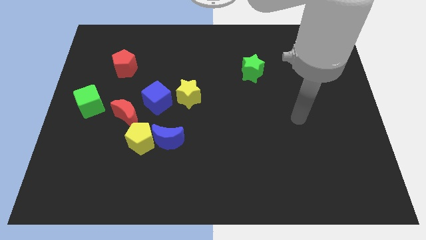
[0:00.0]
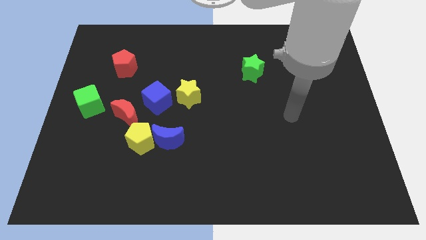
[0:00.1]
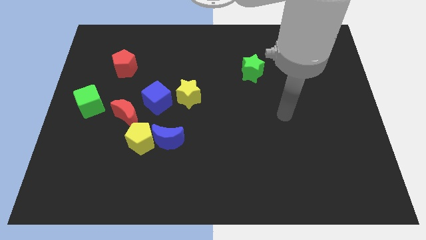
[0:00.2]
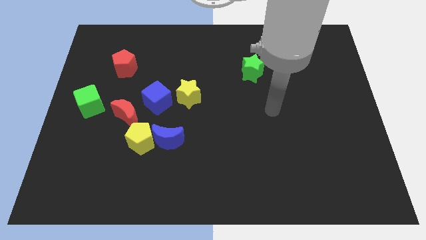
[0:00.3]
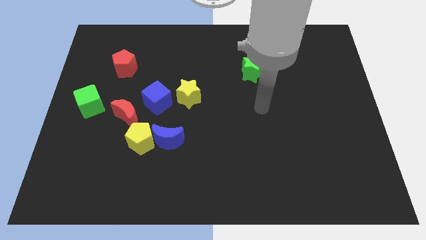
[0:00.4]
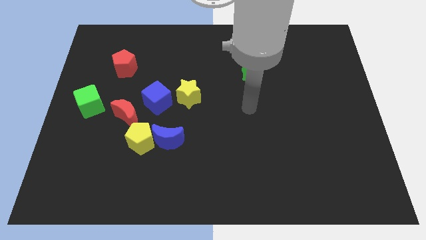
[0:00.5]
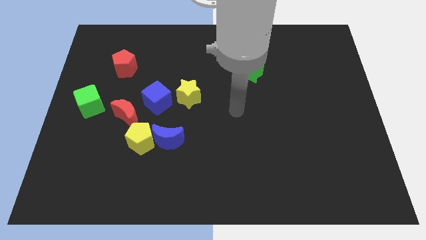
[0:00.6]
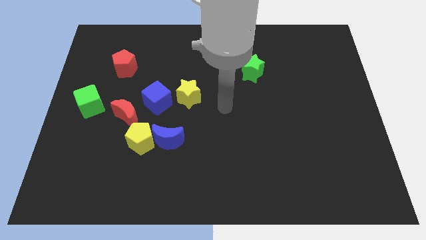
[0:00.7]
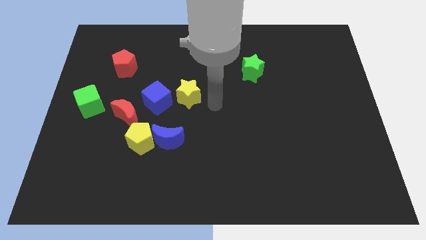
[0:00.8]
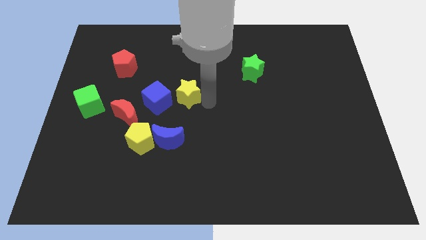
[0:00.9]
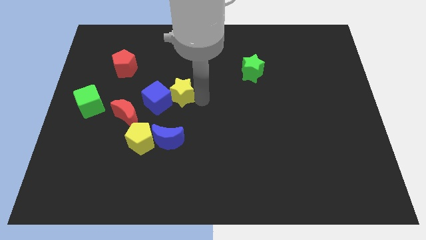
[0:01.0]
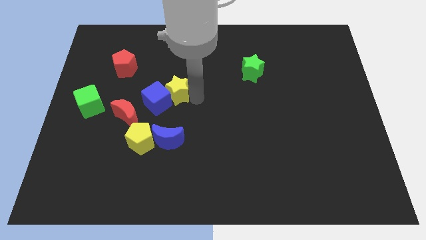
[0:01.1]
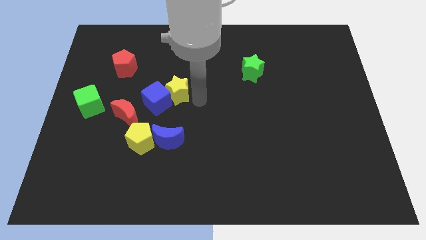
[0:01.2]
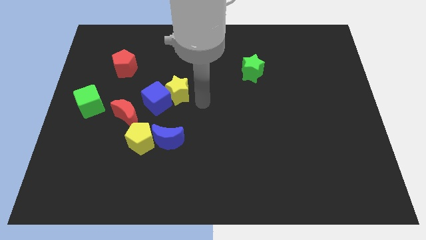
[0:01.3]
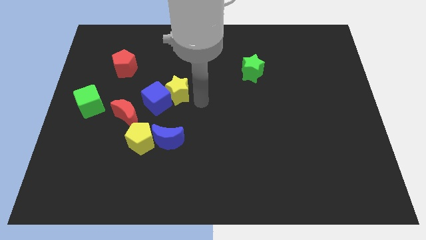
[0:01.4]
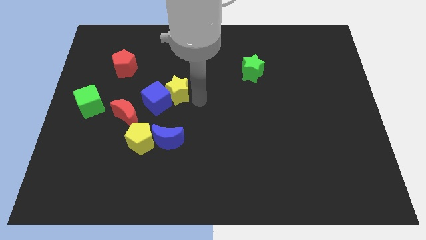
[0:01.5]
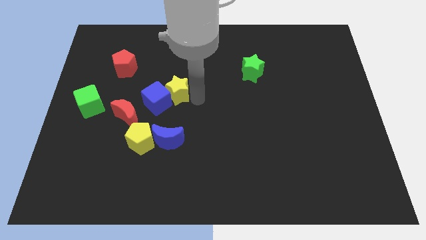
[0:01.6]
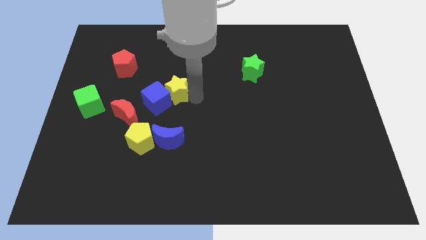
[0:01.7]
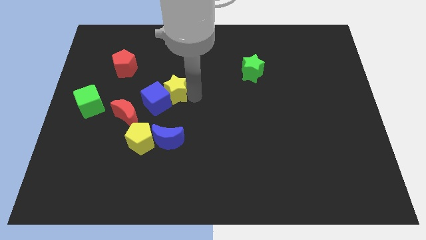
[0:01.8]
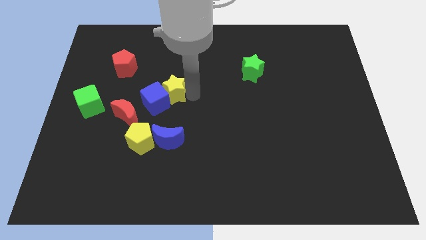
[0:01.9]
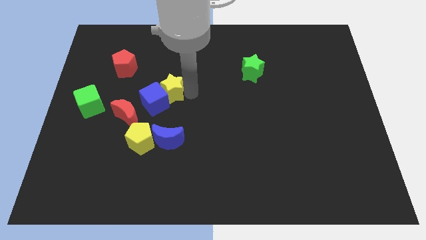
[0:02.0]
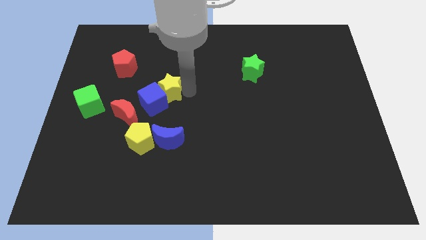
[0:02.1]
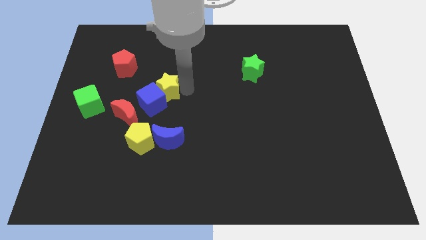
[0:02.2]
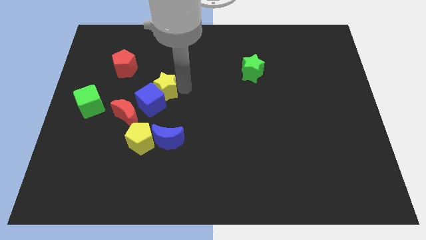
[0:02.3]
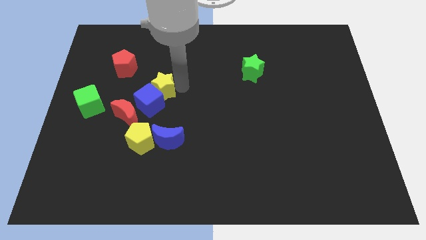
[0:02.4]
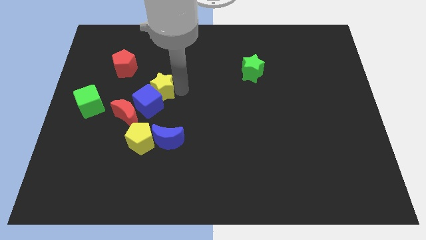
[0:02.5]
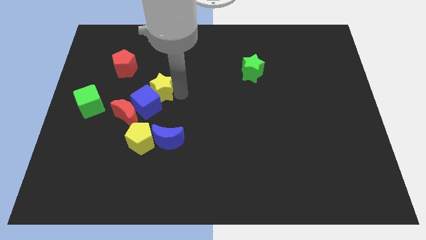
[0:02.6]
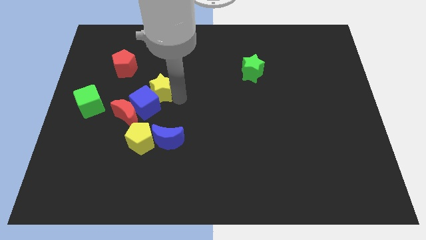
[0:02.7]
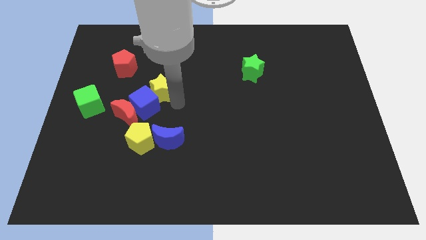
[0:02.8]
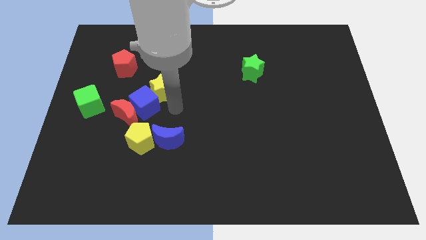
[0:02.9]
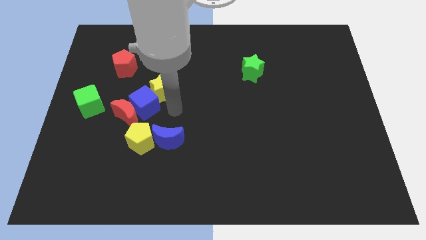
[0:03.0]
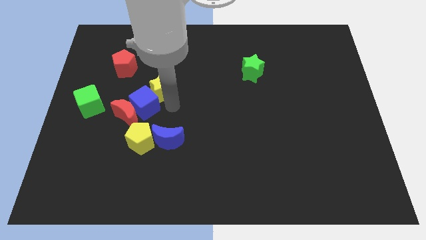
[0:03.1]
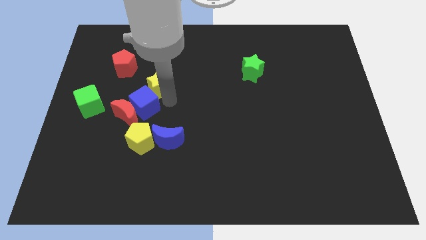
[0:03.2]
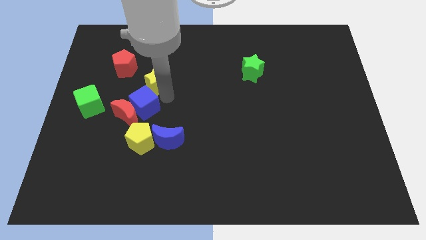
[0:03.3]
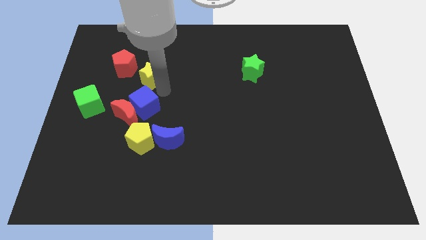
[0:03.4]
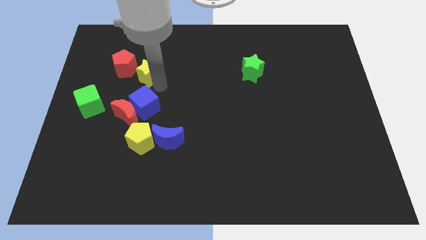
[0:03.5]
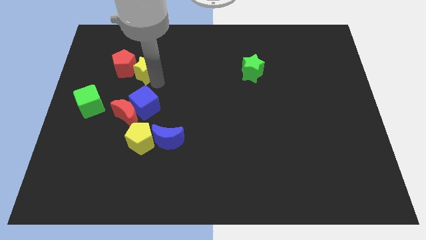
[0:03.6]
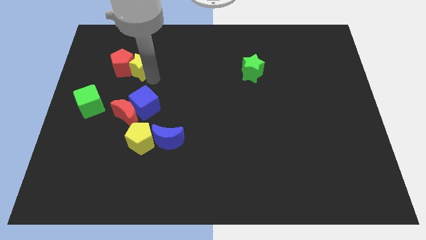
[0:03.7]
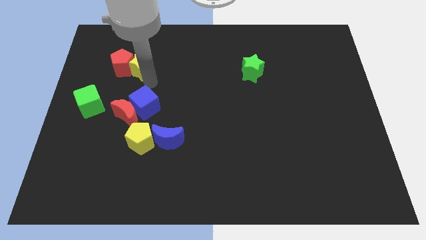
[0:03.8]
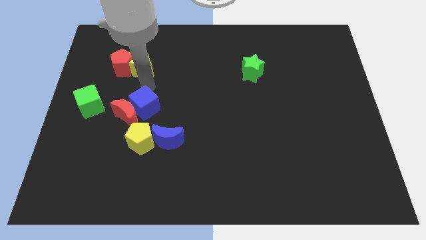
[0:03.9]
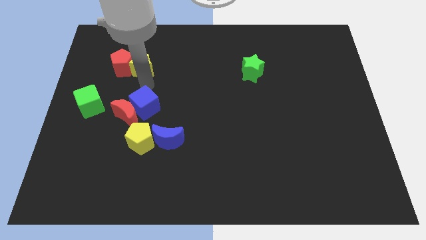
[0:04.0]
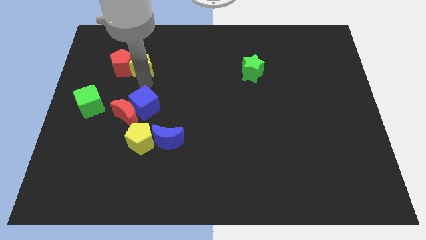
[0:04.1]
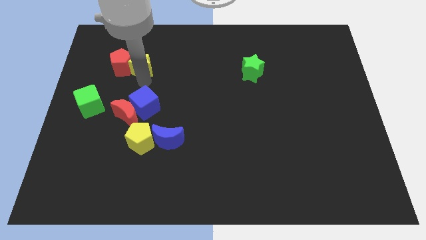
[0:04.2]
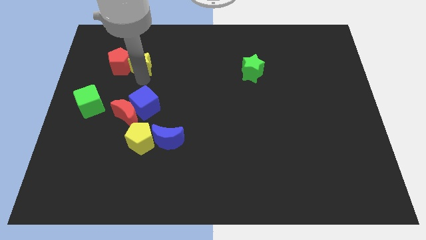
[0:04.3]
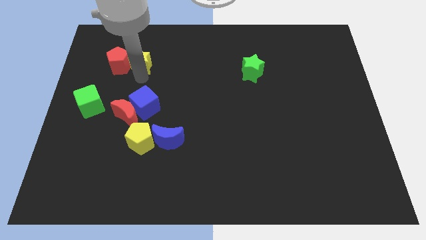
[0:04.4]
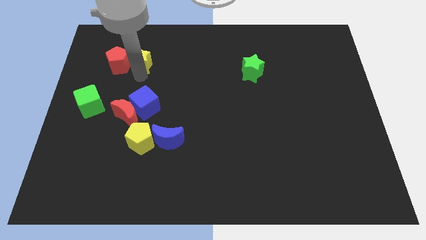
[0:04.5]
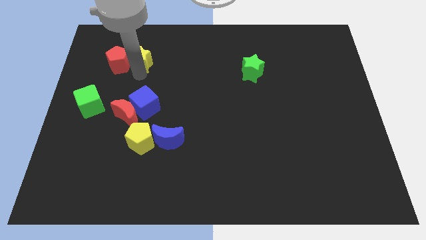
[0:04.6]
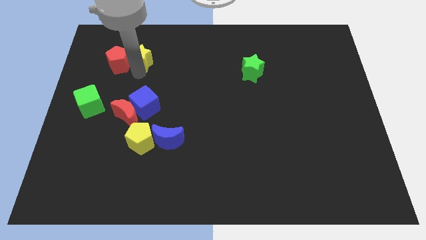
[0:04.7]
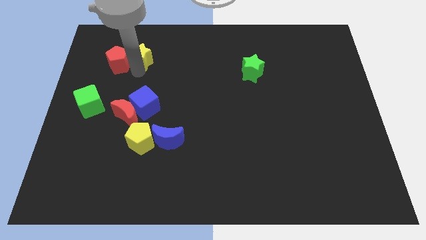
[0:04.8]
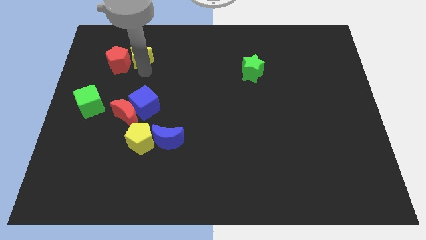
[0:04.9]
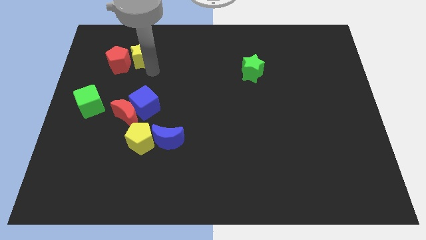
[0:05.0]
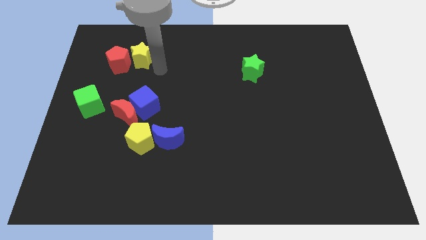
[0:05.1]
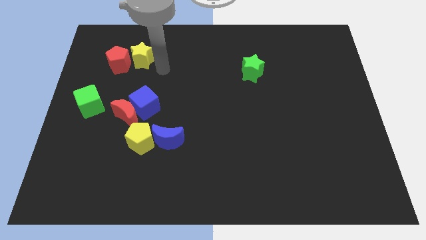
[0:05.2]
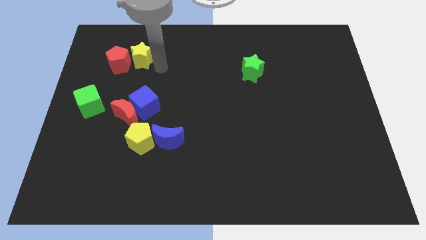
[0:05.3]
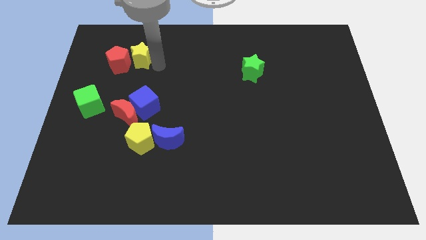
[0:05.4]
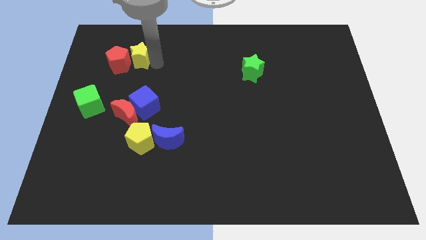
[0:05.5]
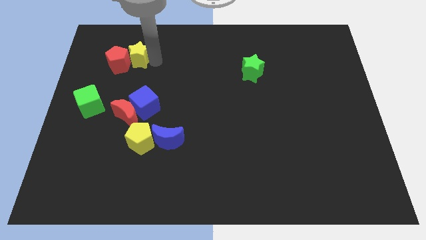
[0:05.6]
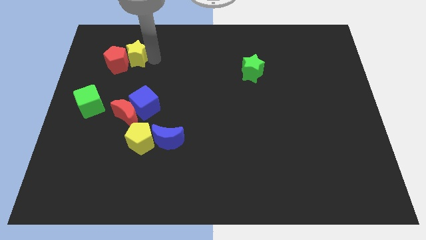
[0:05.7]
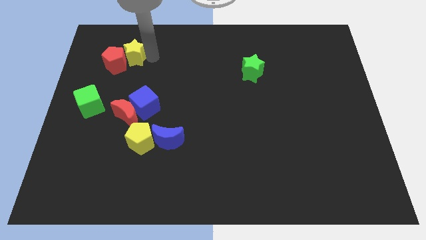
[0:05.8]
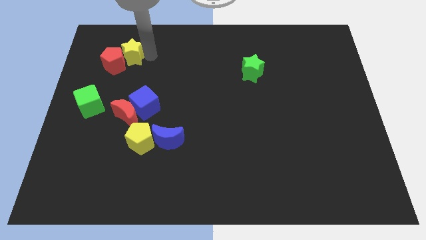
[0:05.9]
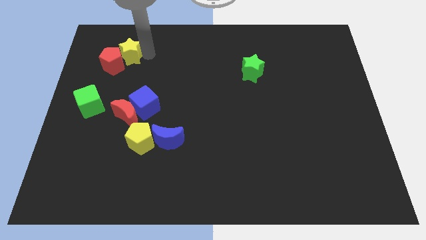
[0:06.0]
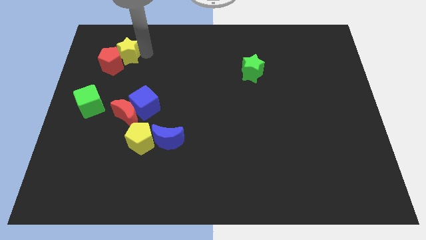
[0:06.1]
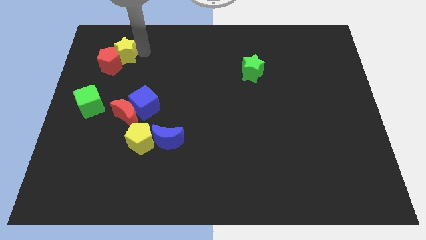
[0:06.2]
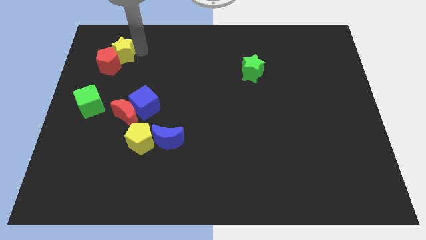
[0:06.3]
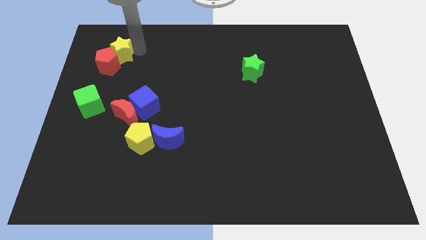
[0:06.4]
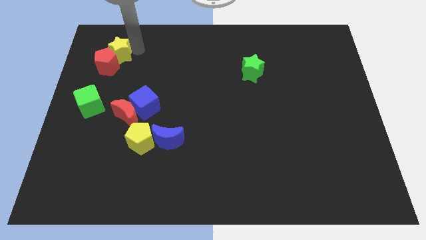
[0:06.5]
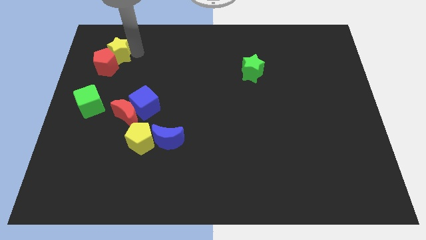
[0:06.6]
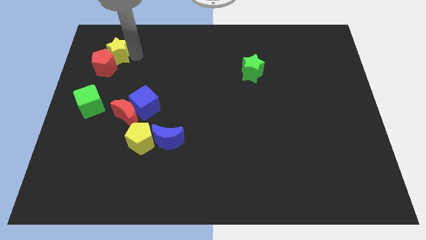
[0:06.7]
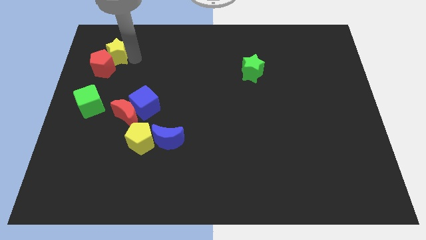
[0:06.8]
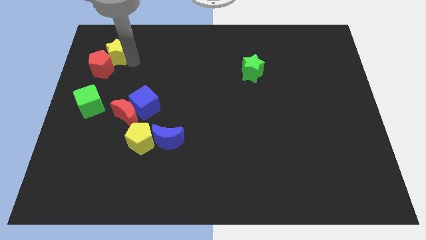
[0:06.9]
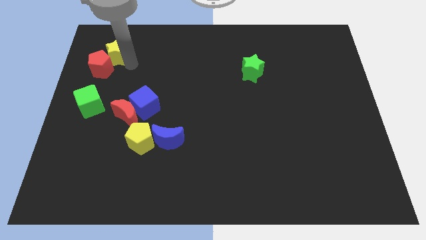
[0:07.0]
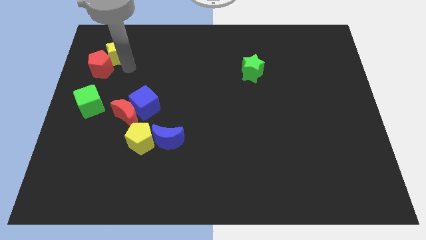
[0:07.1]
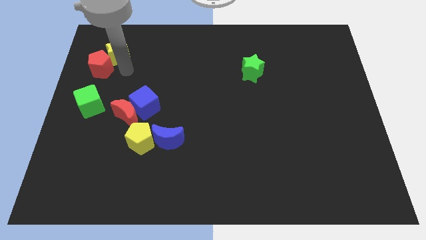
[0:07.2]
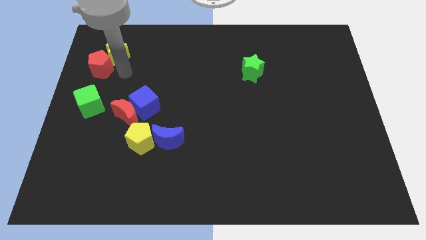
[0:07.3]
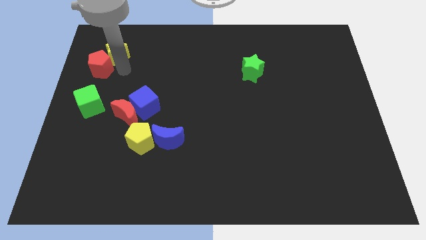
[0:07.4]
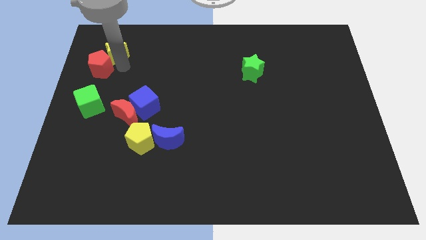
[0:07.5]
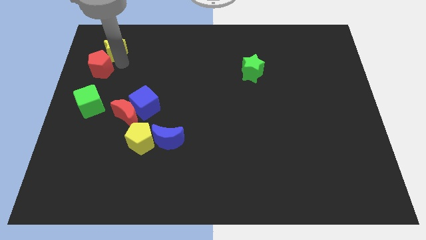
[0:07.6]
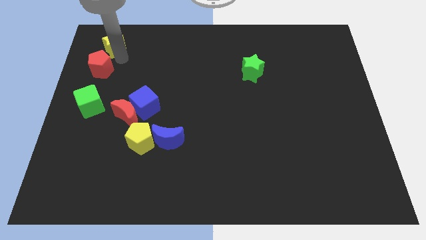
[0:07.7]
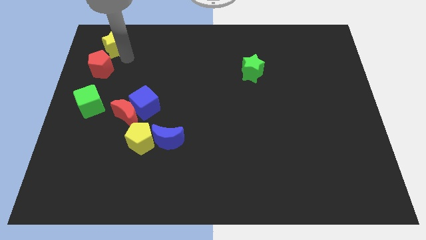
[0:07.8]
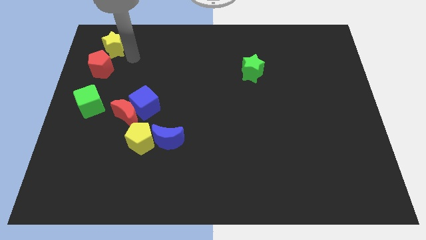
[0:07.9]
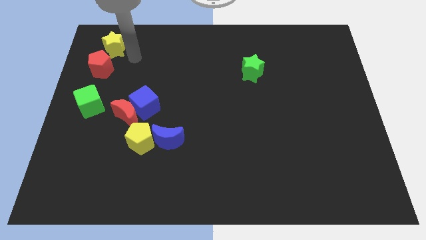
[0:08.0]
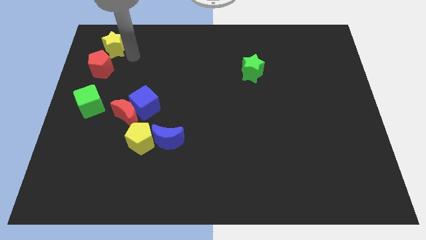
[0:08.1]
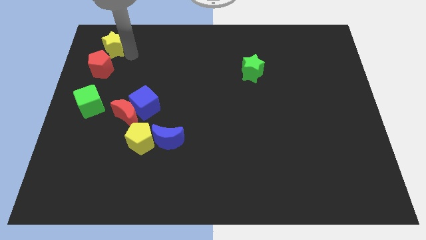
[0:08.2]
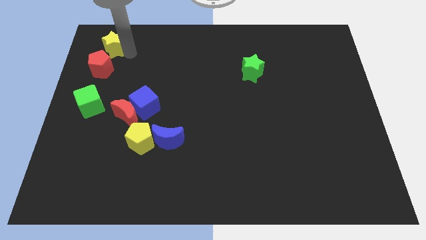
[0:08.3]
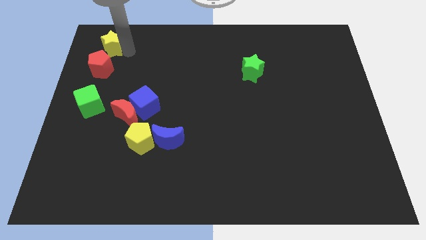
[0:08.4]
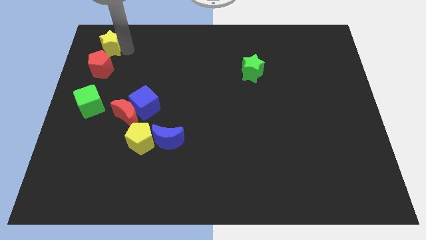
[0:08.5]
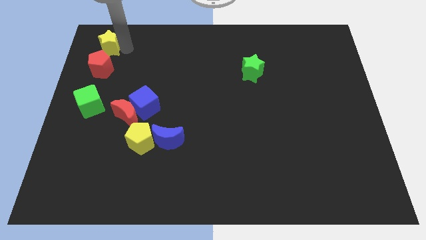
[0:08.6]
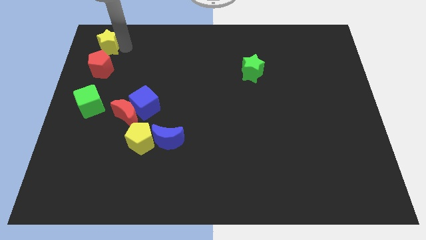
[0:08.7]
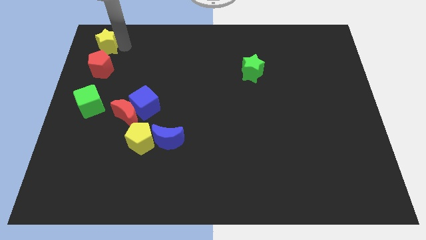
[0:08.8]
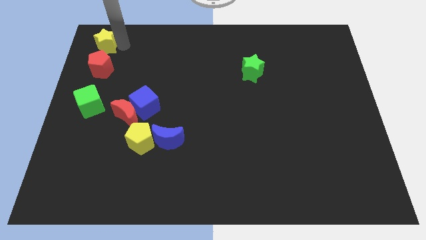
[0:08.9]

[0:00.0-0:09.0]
push the yellow star to the top left
